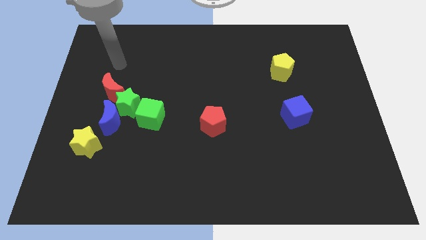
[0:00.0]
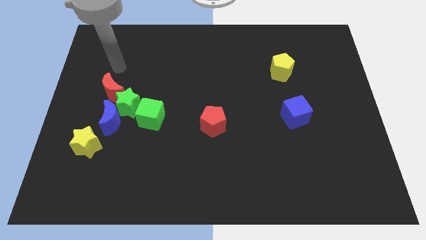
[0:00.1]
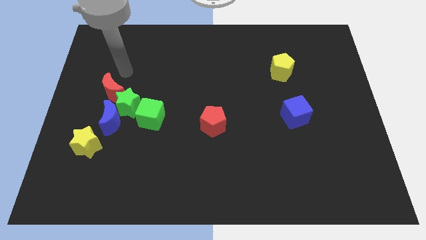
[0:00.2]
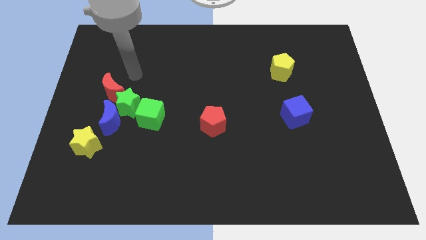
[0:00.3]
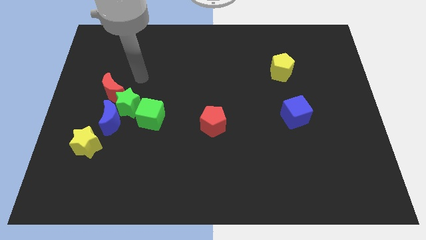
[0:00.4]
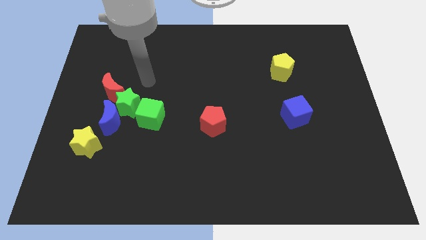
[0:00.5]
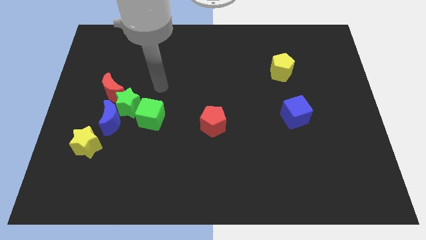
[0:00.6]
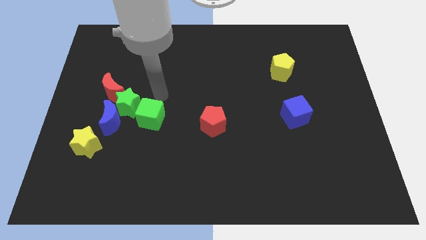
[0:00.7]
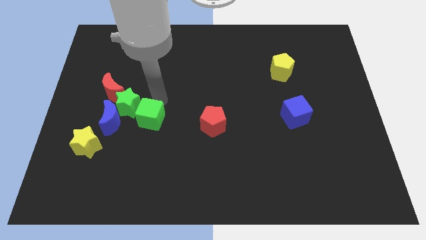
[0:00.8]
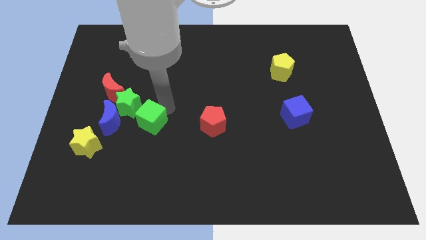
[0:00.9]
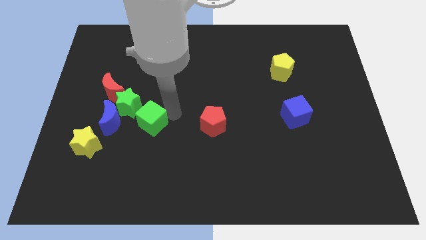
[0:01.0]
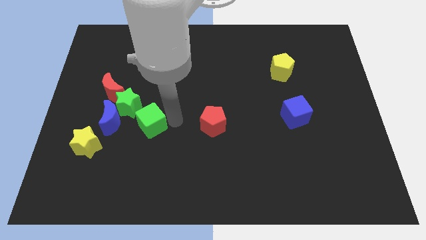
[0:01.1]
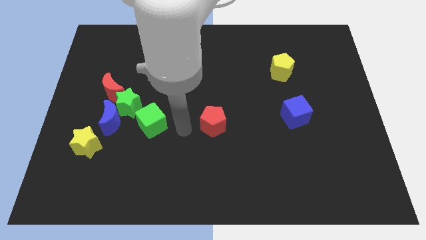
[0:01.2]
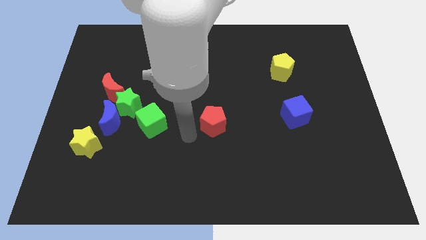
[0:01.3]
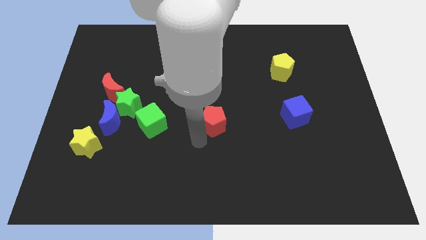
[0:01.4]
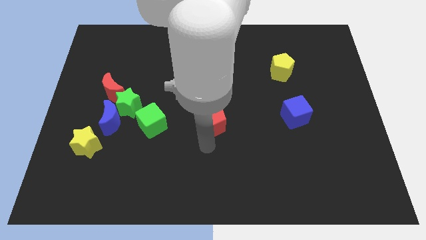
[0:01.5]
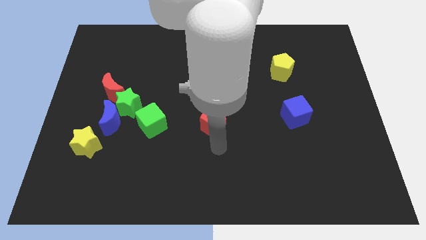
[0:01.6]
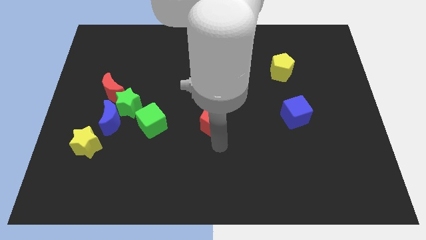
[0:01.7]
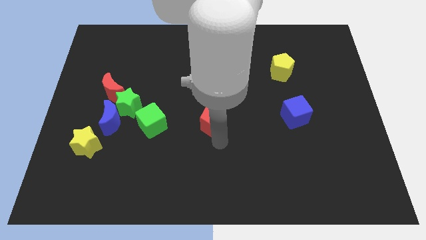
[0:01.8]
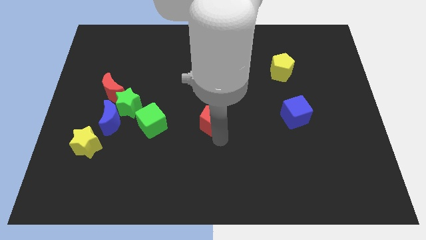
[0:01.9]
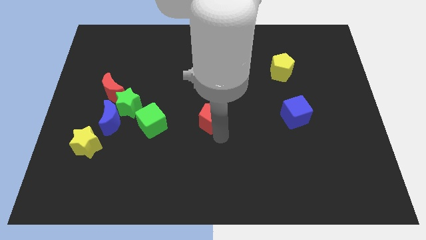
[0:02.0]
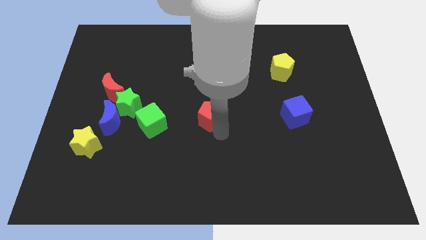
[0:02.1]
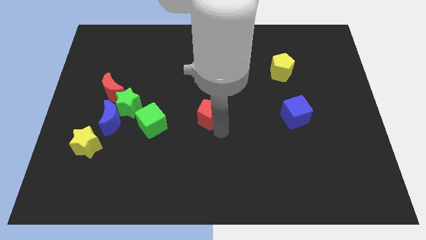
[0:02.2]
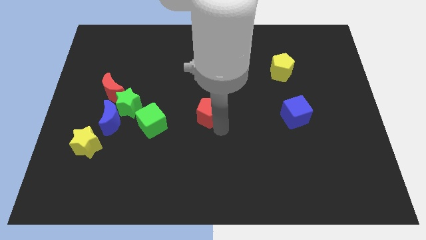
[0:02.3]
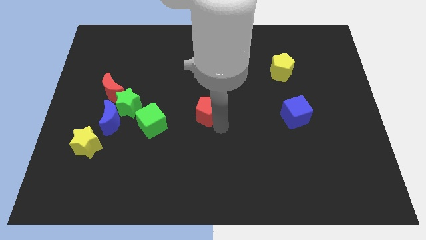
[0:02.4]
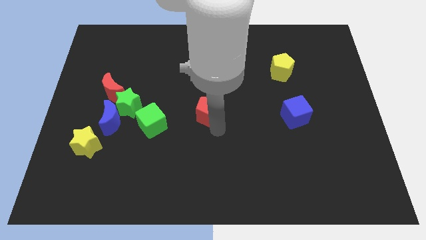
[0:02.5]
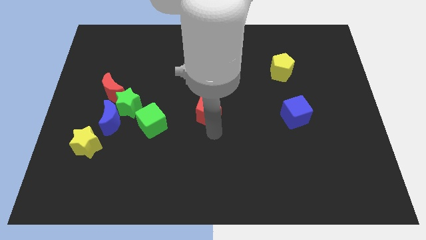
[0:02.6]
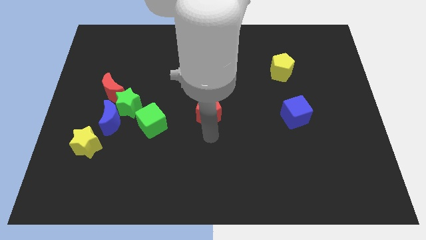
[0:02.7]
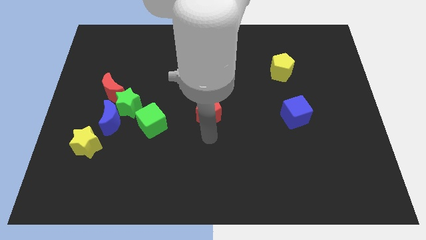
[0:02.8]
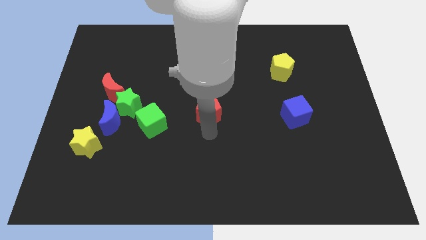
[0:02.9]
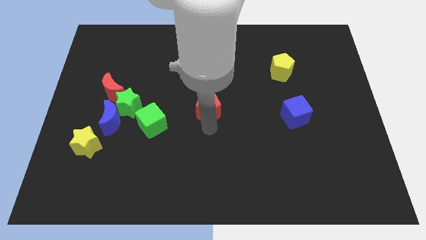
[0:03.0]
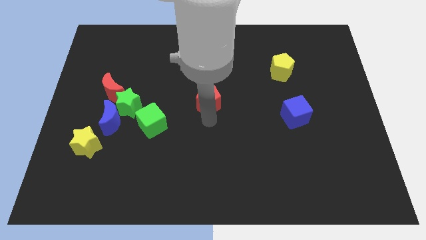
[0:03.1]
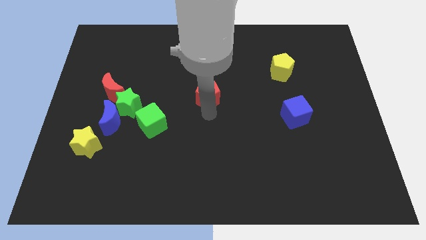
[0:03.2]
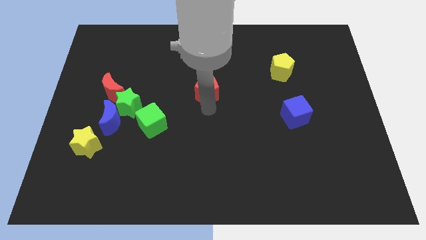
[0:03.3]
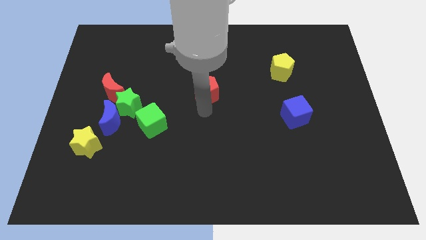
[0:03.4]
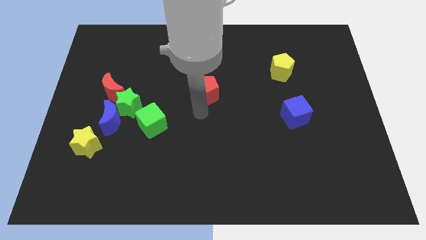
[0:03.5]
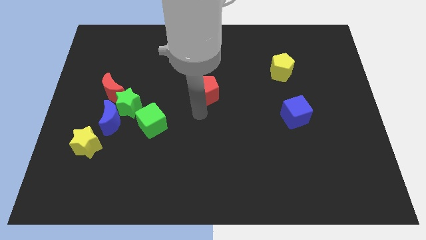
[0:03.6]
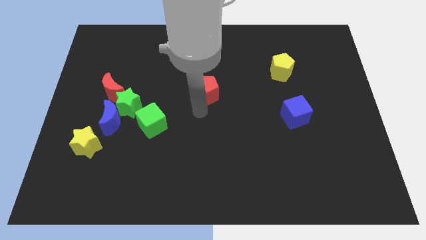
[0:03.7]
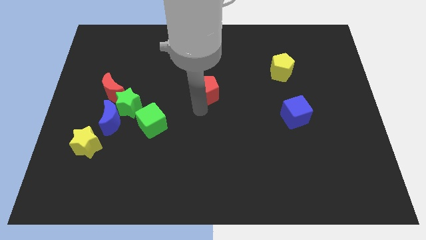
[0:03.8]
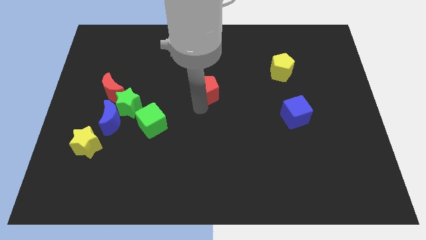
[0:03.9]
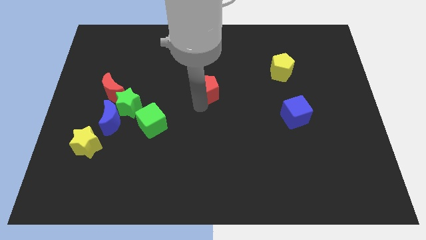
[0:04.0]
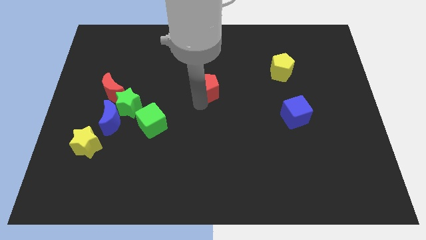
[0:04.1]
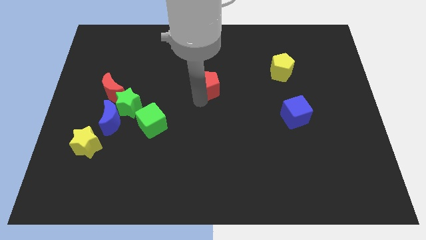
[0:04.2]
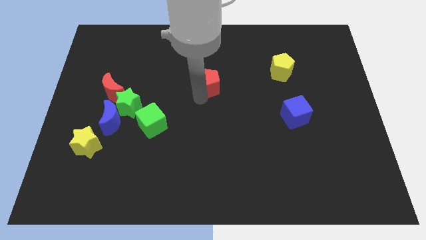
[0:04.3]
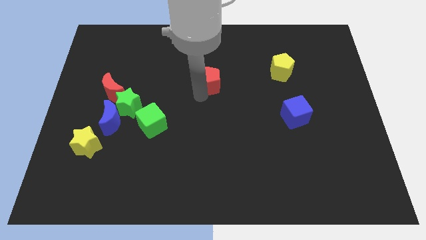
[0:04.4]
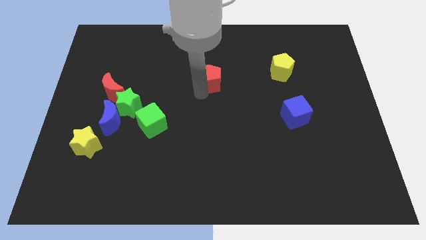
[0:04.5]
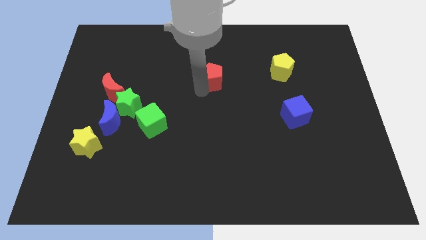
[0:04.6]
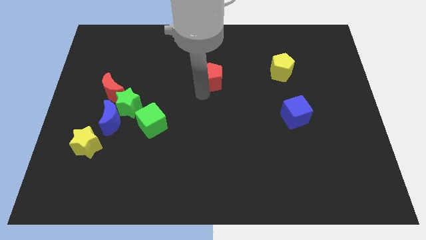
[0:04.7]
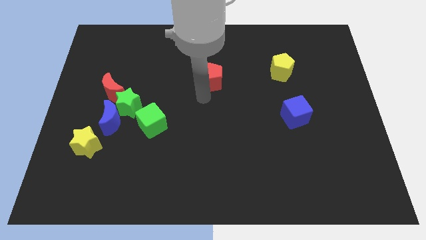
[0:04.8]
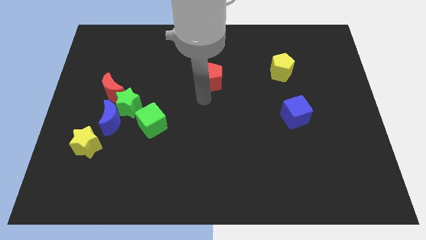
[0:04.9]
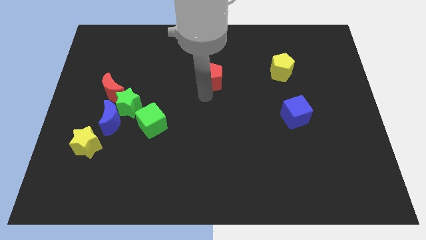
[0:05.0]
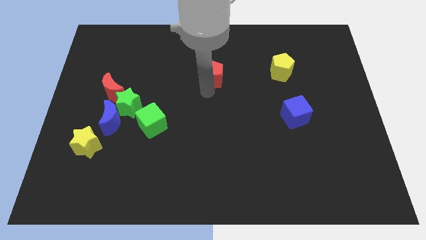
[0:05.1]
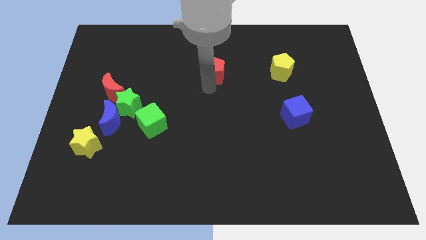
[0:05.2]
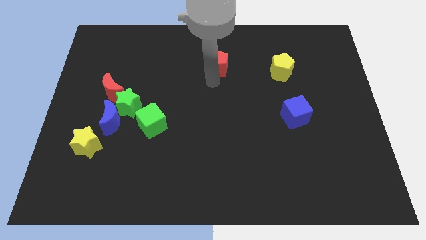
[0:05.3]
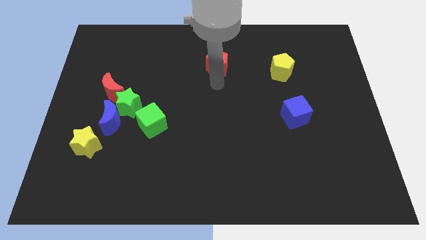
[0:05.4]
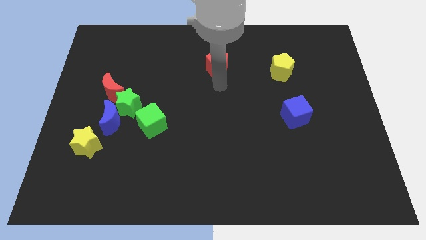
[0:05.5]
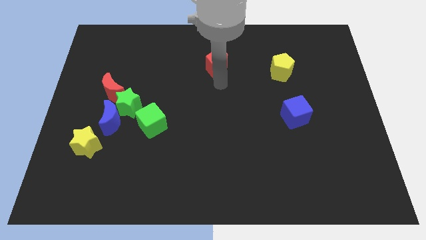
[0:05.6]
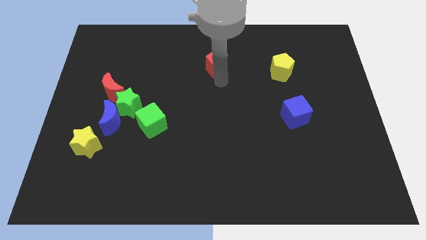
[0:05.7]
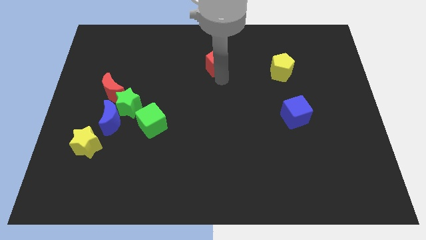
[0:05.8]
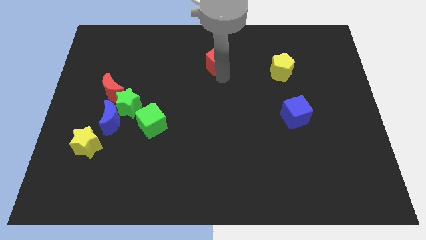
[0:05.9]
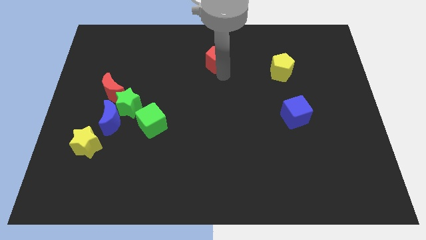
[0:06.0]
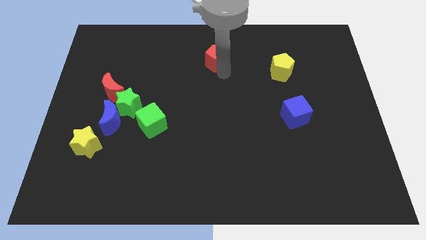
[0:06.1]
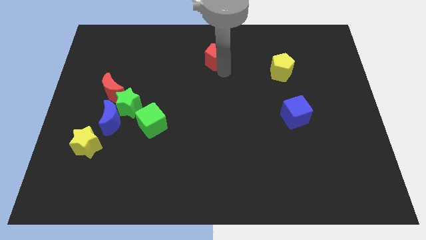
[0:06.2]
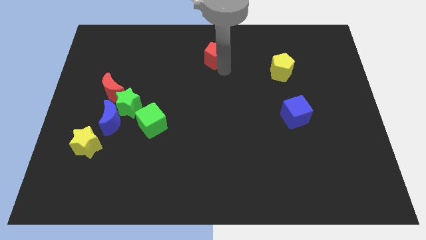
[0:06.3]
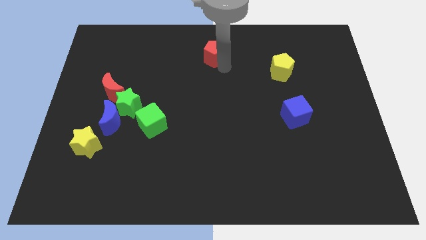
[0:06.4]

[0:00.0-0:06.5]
put the red pentagon to the top side

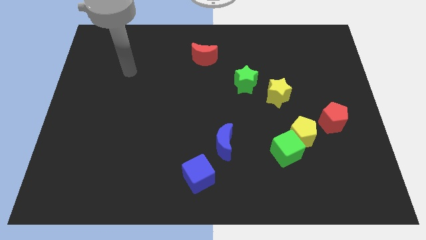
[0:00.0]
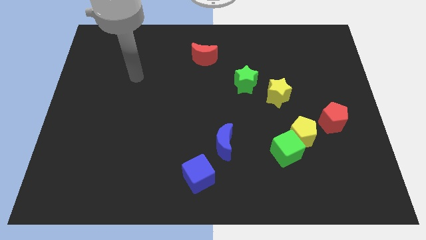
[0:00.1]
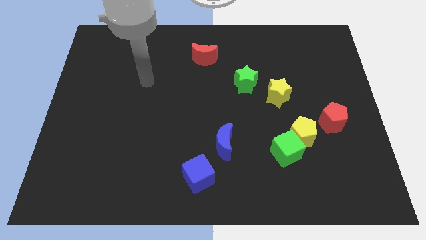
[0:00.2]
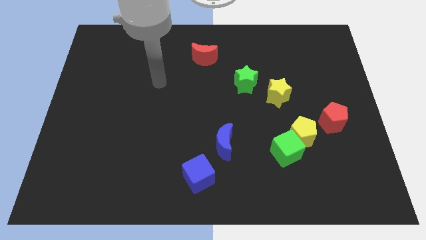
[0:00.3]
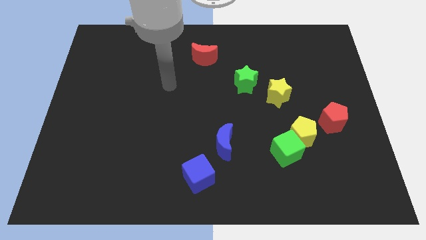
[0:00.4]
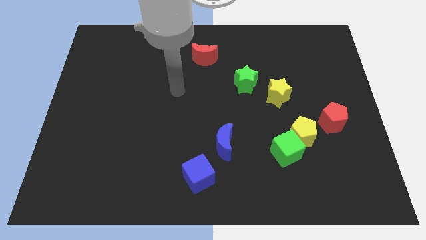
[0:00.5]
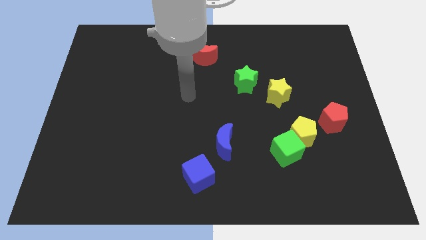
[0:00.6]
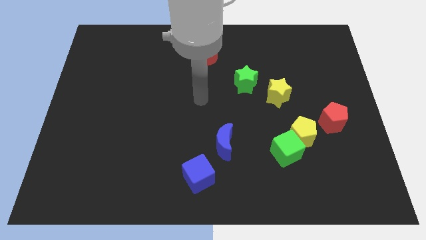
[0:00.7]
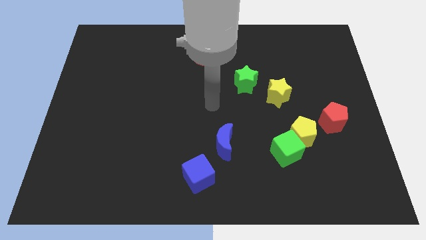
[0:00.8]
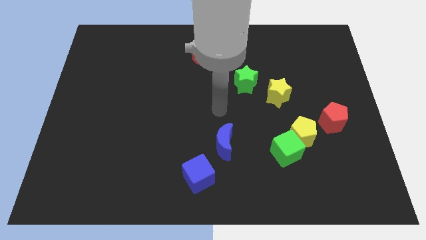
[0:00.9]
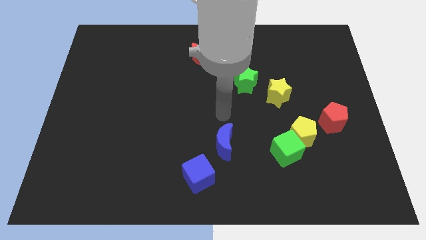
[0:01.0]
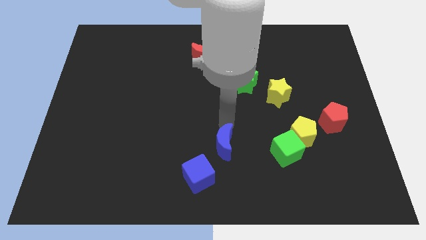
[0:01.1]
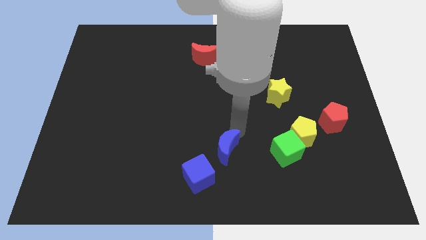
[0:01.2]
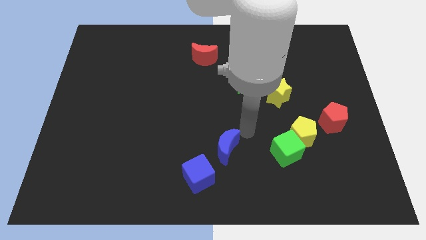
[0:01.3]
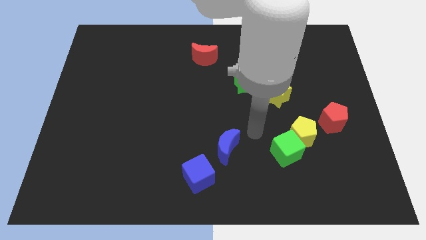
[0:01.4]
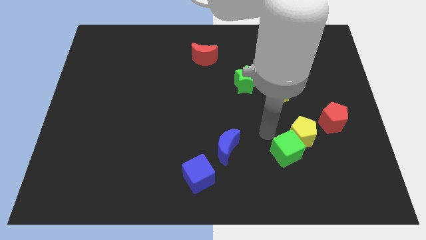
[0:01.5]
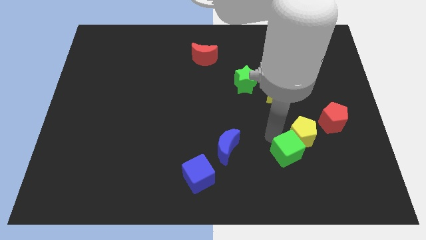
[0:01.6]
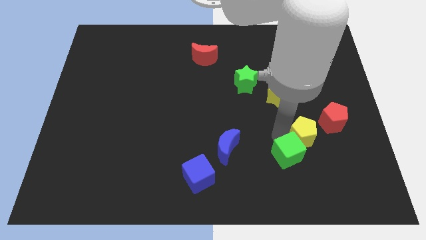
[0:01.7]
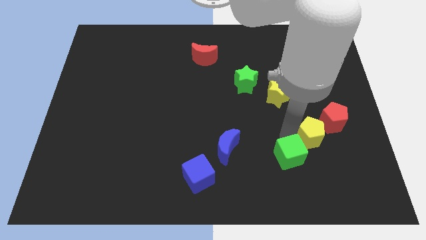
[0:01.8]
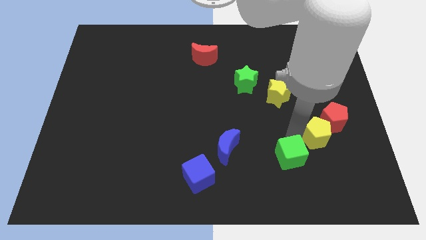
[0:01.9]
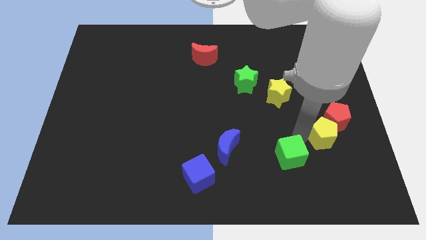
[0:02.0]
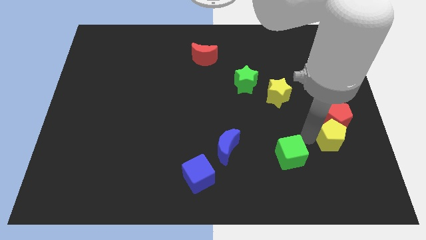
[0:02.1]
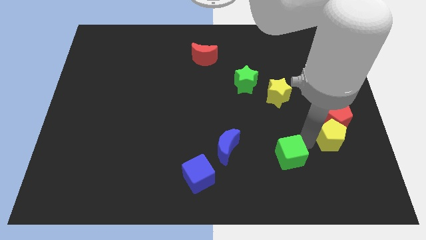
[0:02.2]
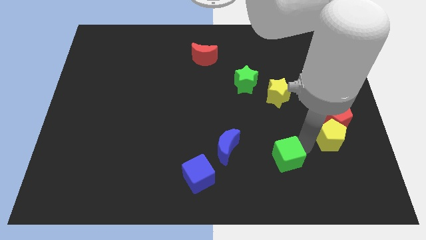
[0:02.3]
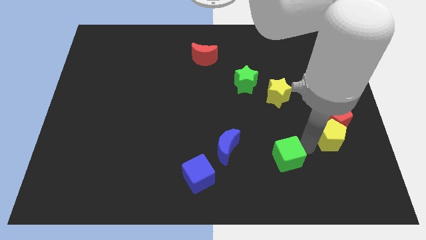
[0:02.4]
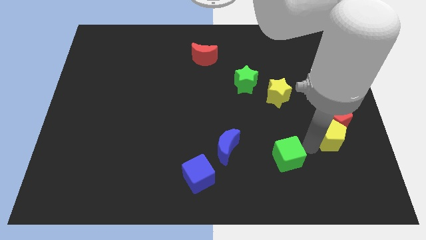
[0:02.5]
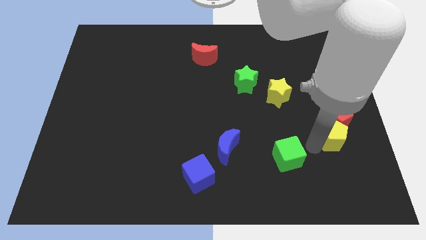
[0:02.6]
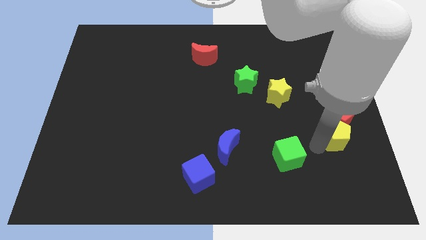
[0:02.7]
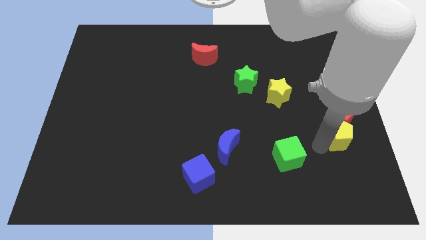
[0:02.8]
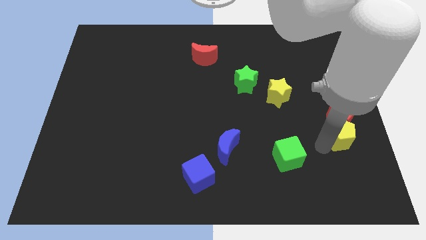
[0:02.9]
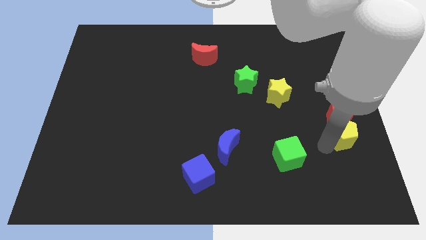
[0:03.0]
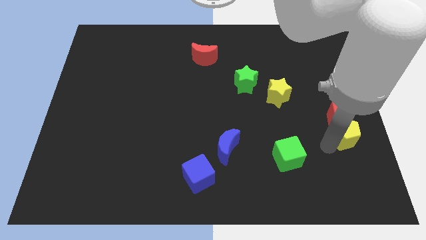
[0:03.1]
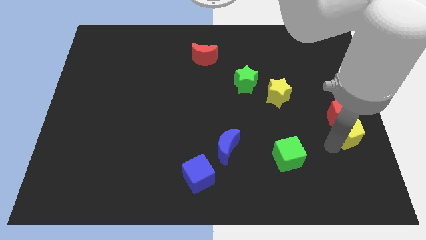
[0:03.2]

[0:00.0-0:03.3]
move the yellow pentagon to the center right
